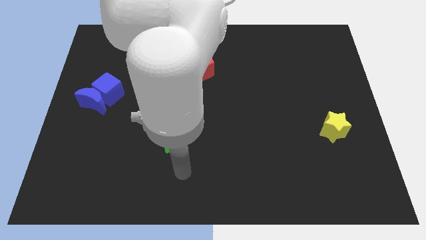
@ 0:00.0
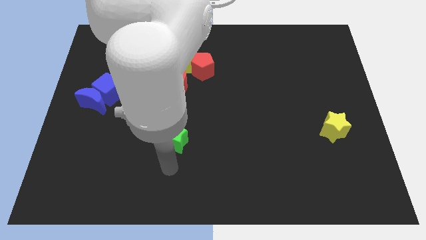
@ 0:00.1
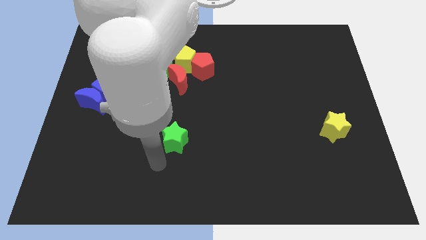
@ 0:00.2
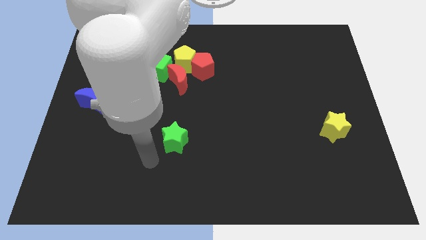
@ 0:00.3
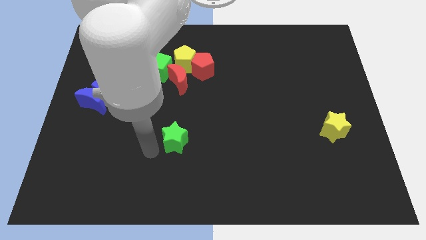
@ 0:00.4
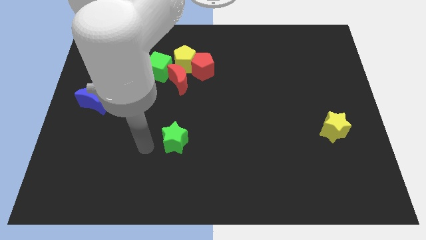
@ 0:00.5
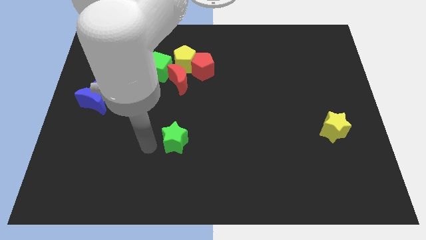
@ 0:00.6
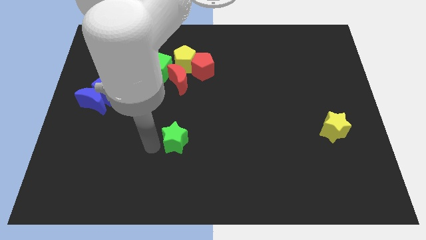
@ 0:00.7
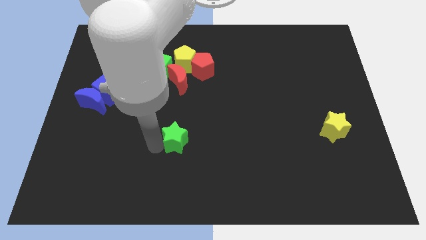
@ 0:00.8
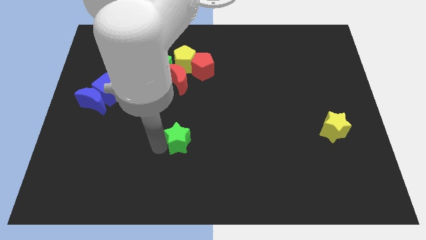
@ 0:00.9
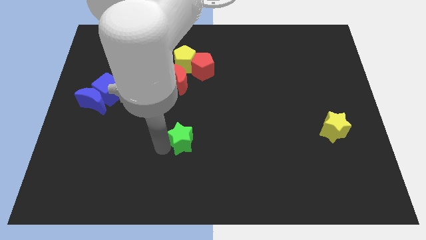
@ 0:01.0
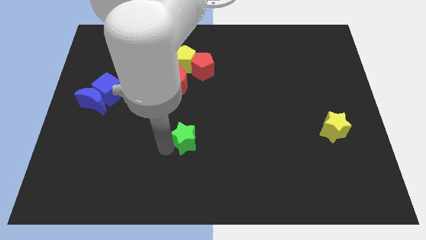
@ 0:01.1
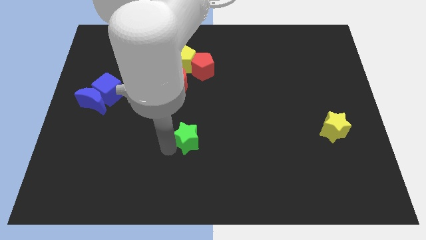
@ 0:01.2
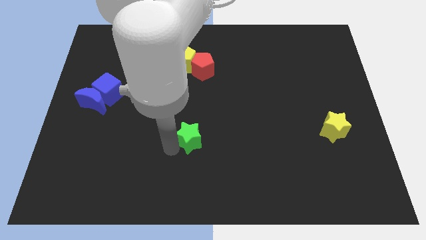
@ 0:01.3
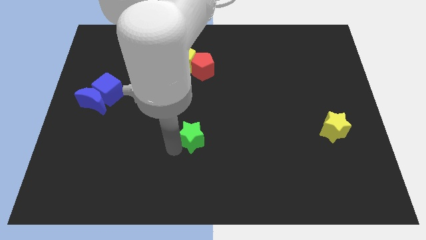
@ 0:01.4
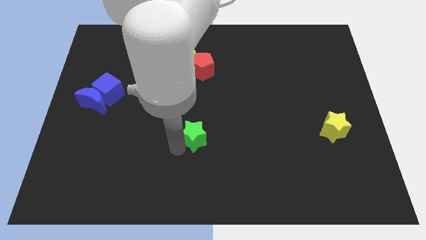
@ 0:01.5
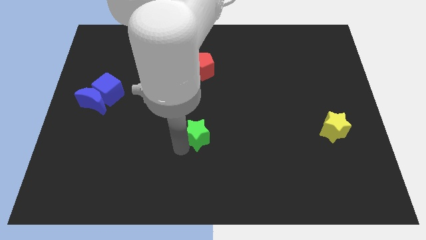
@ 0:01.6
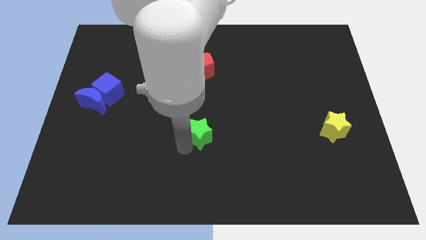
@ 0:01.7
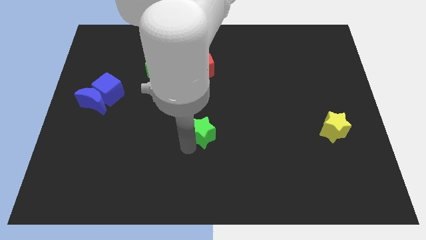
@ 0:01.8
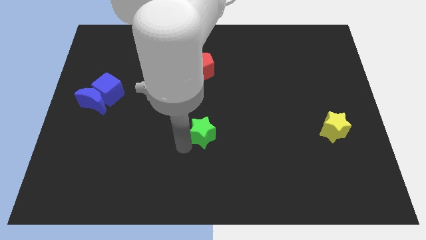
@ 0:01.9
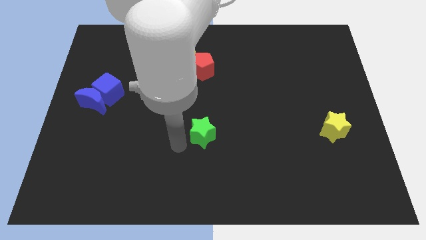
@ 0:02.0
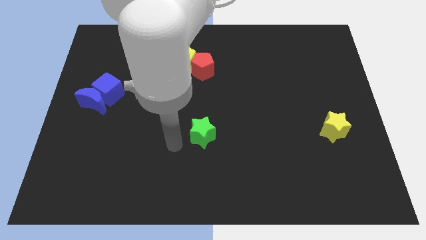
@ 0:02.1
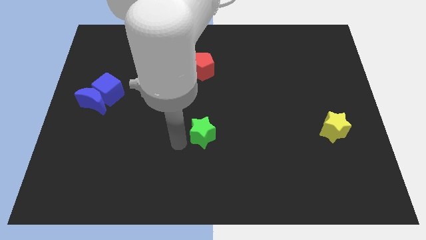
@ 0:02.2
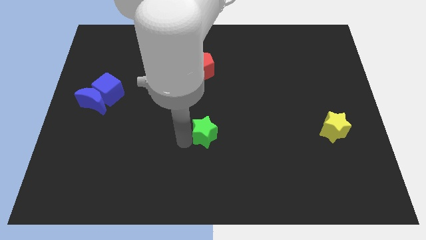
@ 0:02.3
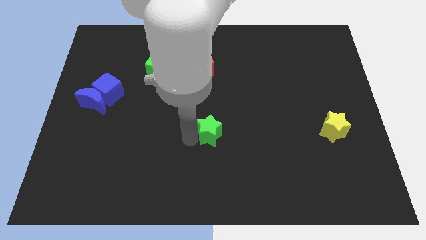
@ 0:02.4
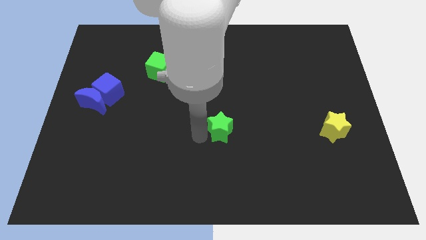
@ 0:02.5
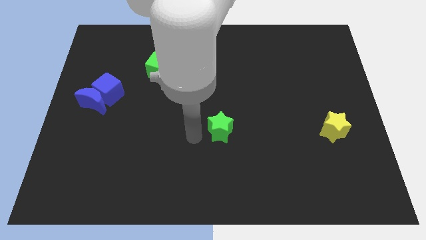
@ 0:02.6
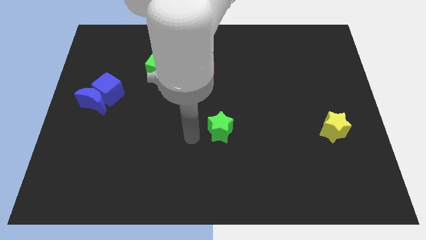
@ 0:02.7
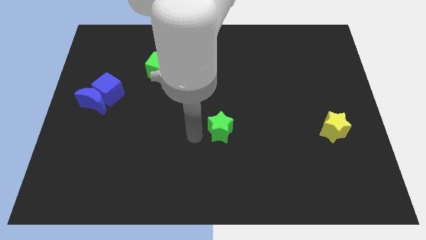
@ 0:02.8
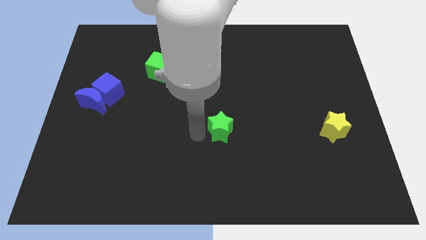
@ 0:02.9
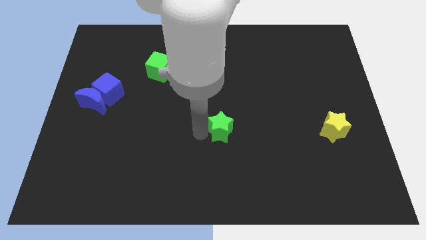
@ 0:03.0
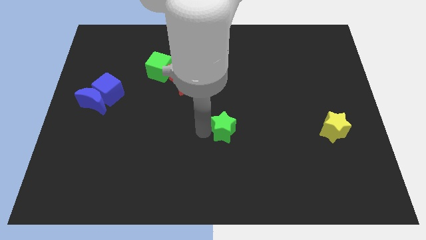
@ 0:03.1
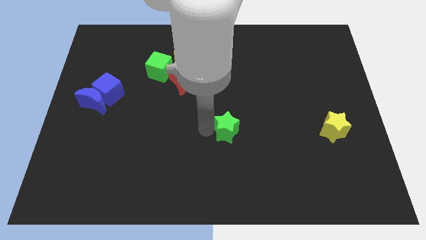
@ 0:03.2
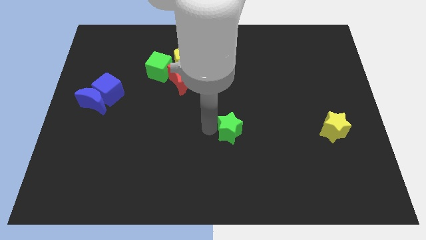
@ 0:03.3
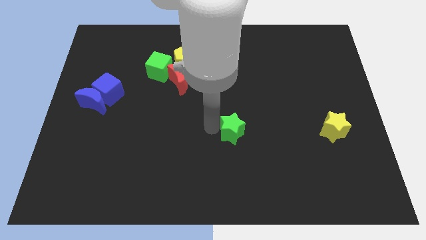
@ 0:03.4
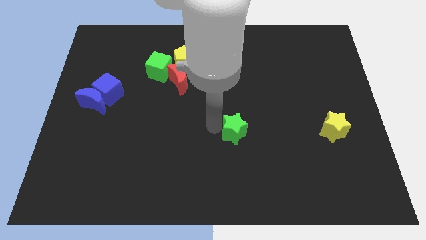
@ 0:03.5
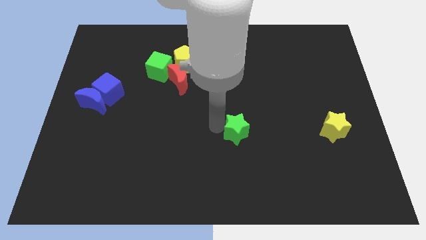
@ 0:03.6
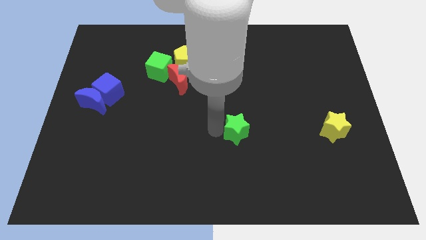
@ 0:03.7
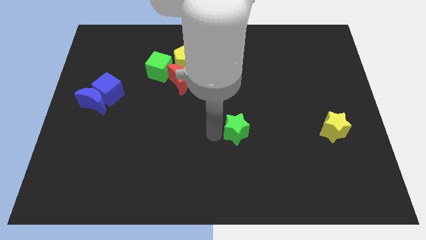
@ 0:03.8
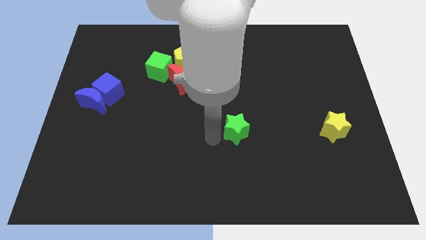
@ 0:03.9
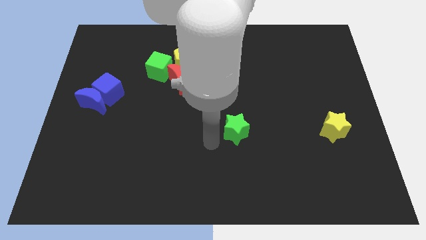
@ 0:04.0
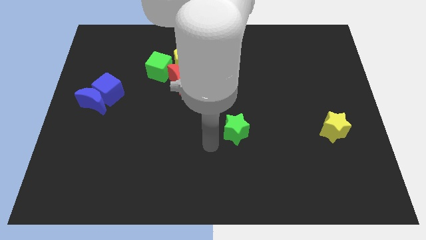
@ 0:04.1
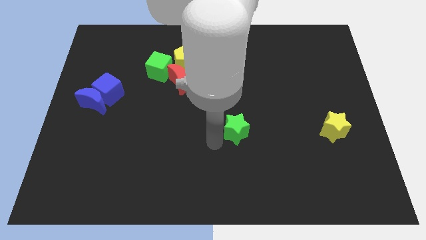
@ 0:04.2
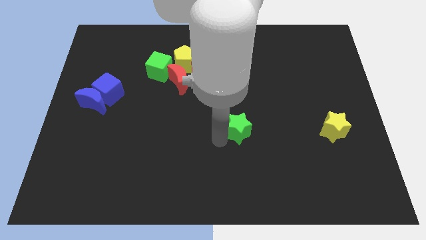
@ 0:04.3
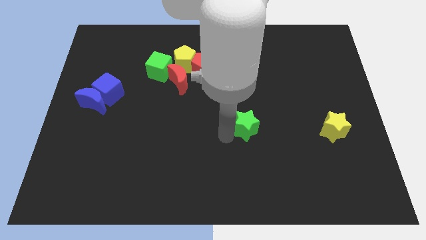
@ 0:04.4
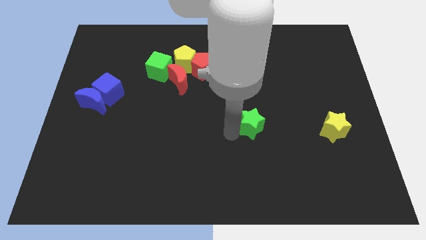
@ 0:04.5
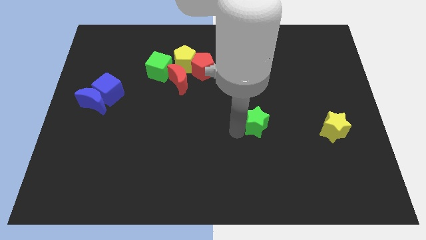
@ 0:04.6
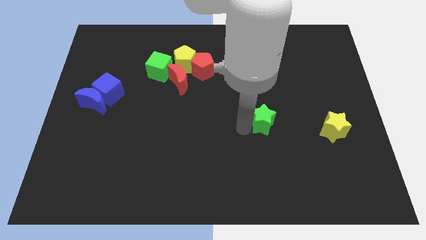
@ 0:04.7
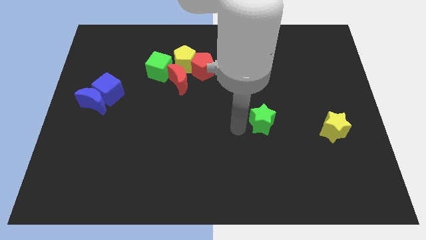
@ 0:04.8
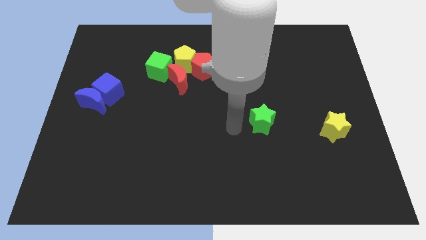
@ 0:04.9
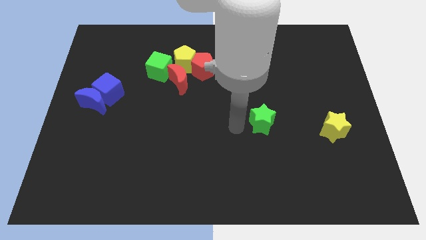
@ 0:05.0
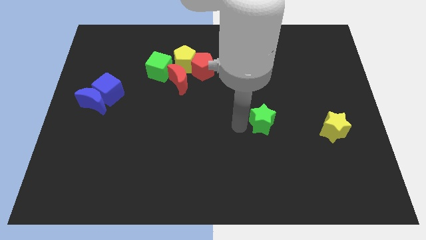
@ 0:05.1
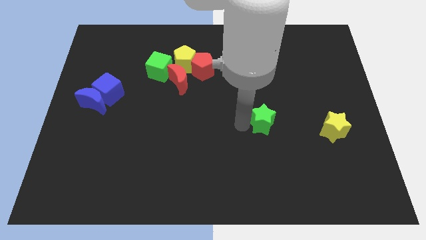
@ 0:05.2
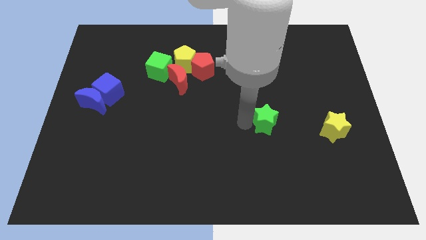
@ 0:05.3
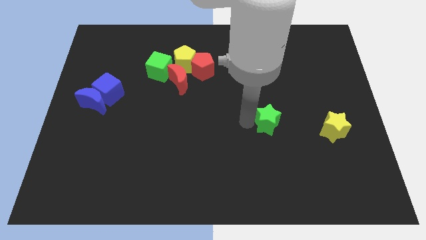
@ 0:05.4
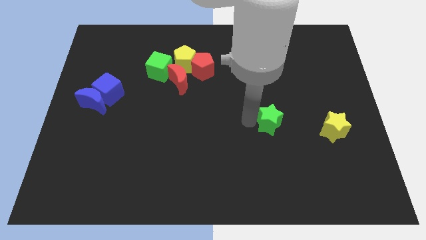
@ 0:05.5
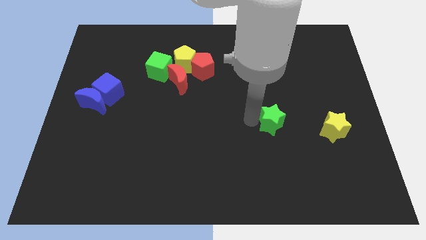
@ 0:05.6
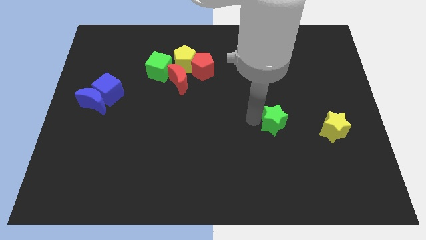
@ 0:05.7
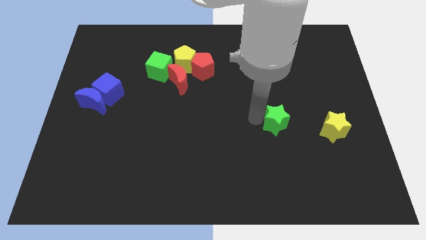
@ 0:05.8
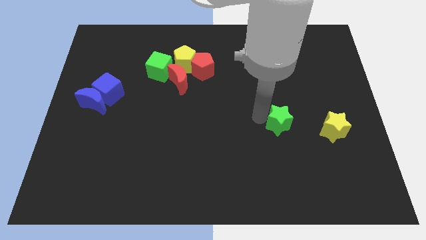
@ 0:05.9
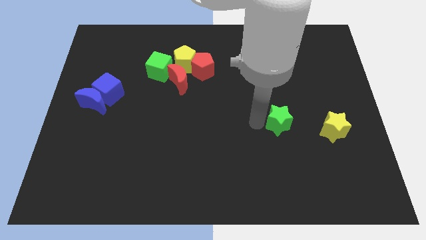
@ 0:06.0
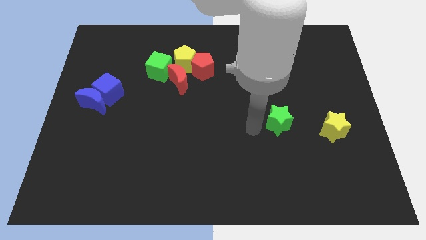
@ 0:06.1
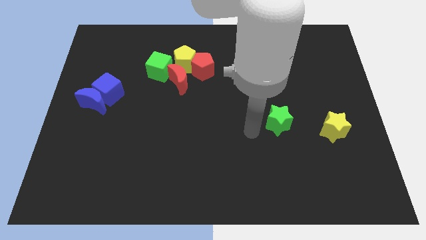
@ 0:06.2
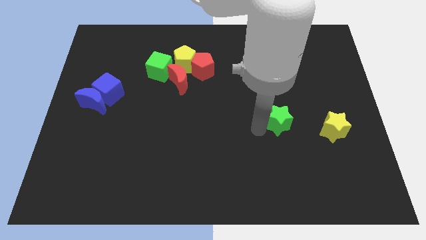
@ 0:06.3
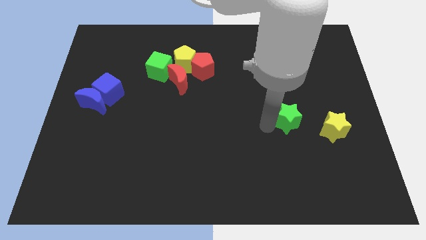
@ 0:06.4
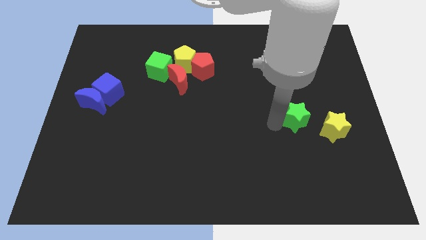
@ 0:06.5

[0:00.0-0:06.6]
push the green star diagonally up and to the left of the yellow star

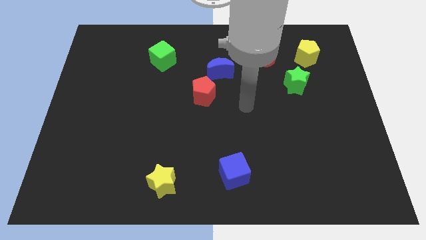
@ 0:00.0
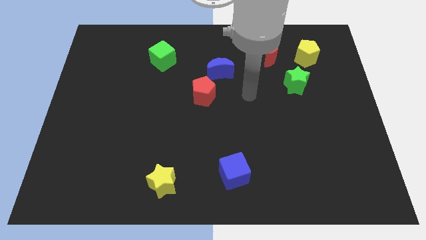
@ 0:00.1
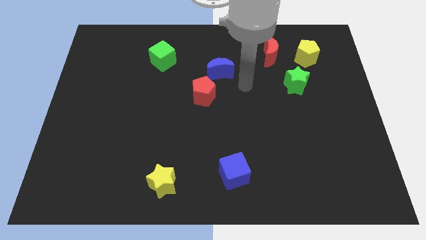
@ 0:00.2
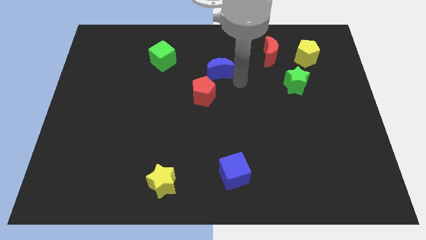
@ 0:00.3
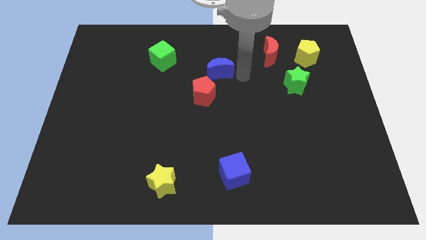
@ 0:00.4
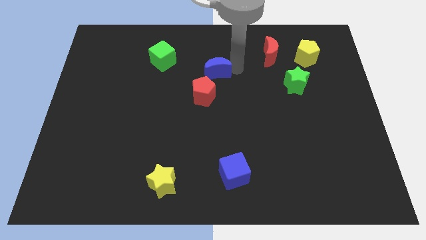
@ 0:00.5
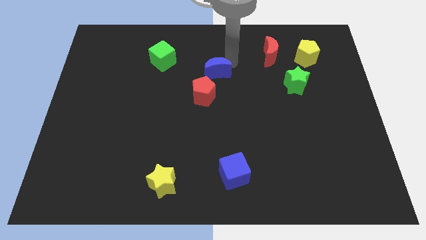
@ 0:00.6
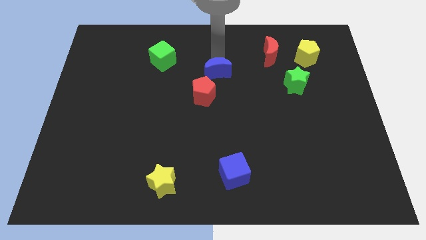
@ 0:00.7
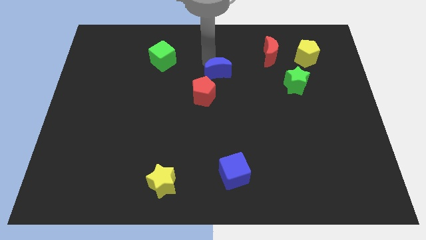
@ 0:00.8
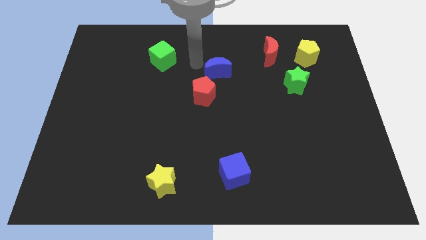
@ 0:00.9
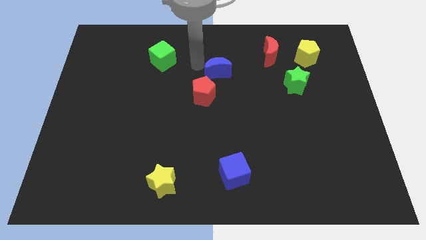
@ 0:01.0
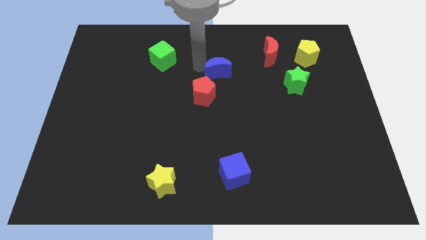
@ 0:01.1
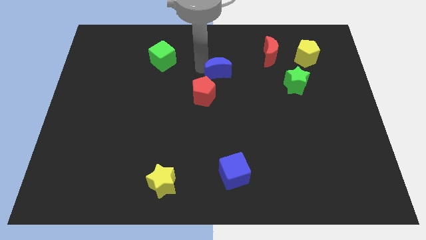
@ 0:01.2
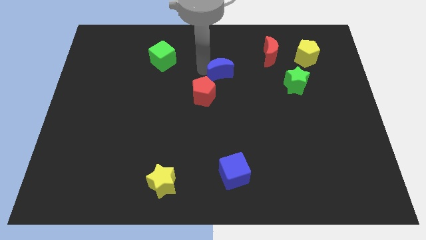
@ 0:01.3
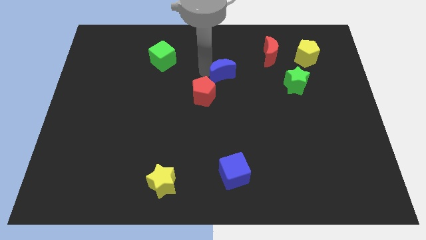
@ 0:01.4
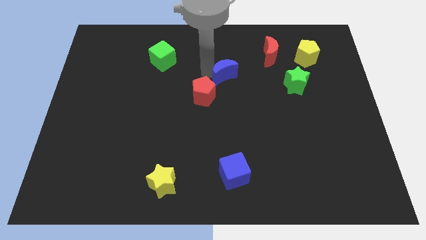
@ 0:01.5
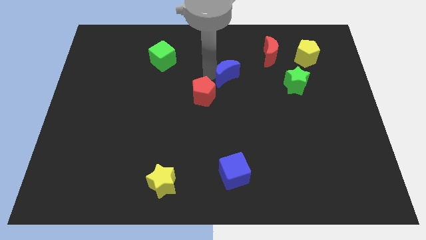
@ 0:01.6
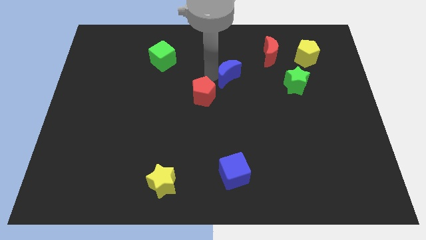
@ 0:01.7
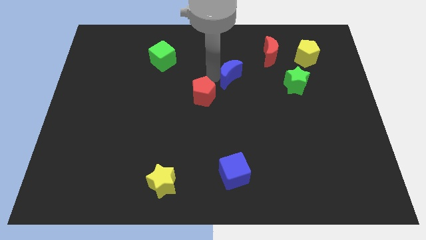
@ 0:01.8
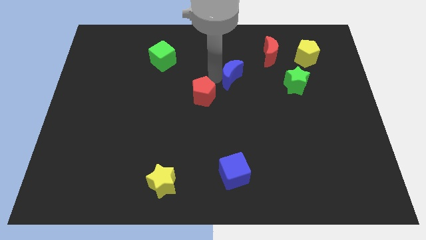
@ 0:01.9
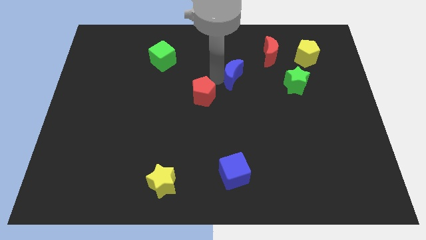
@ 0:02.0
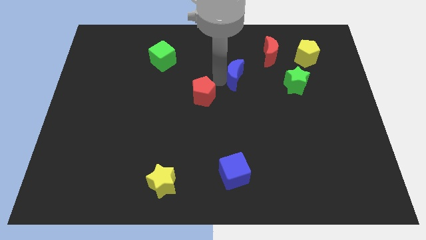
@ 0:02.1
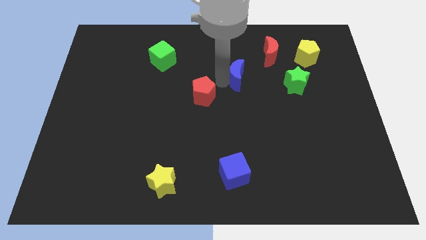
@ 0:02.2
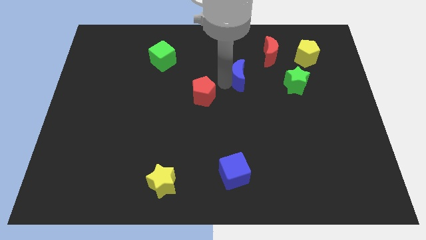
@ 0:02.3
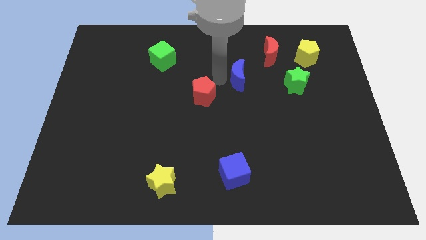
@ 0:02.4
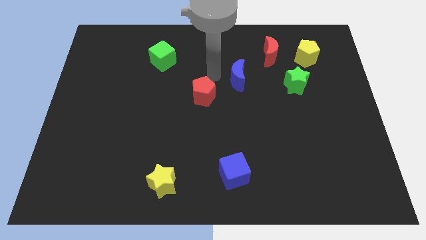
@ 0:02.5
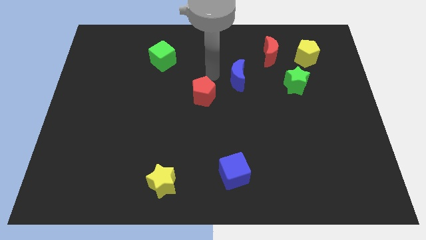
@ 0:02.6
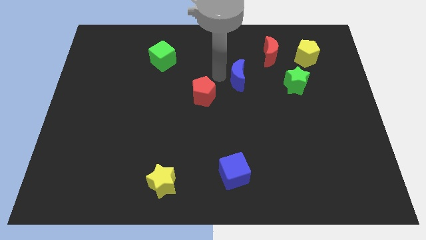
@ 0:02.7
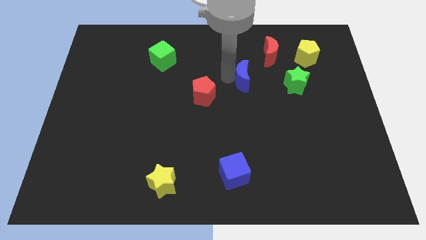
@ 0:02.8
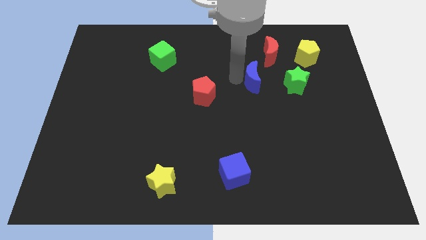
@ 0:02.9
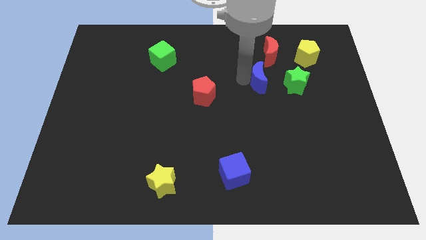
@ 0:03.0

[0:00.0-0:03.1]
move the blue moon to the bottom side of the red moon
